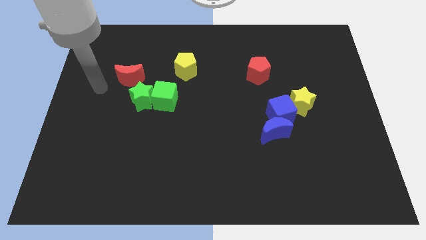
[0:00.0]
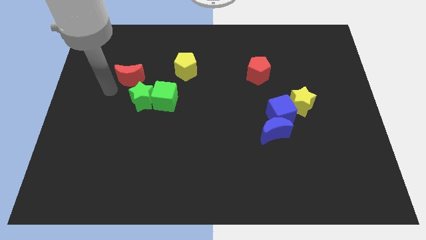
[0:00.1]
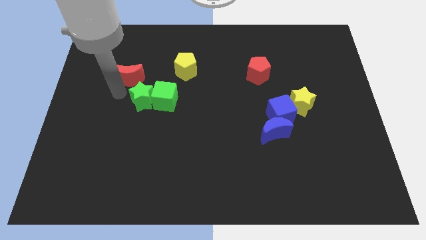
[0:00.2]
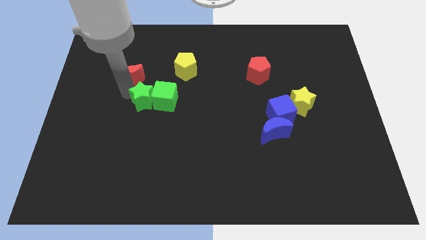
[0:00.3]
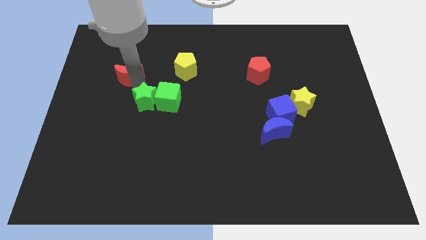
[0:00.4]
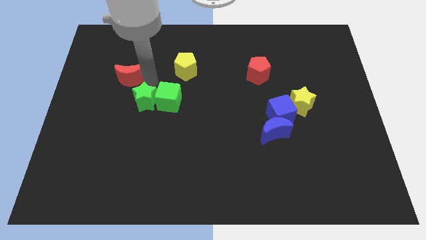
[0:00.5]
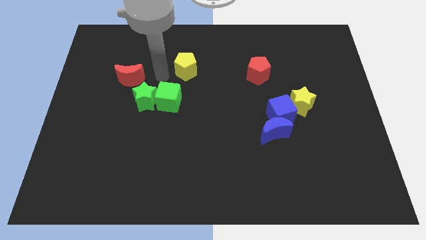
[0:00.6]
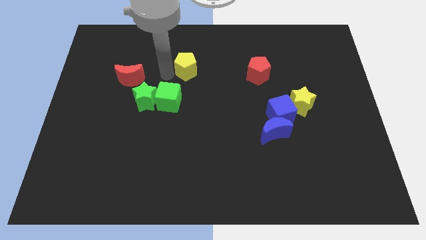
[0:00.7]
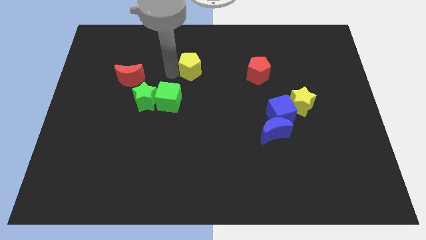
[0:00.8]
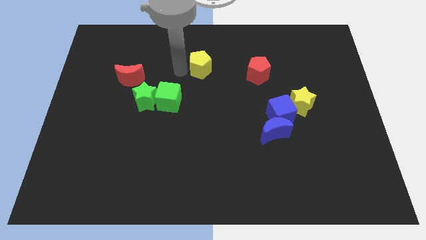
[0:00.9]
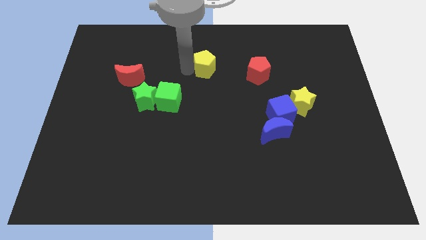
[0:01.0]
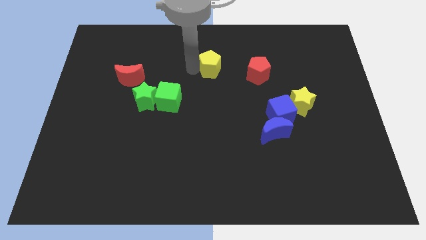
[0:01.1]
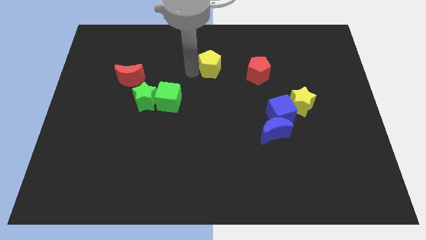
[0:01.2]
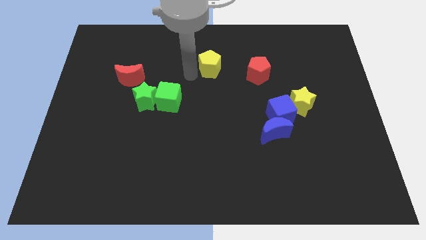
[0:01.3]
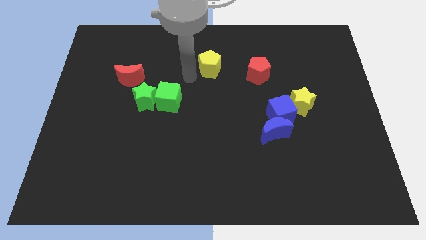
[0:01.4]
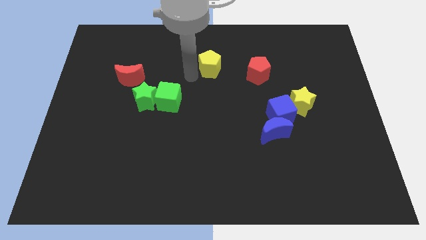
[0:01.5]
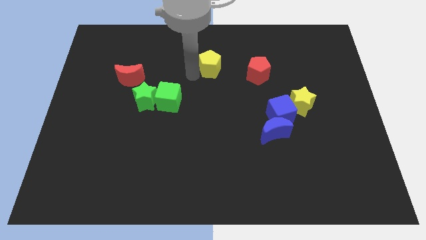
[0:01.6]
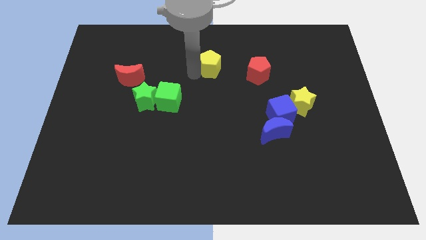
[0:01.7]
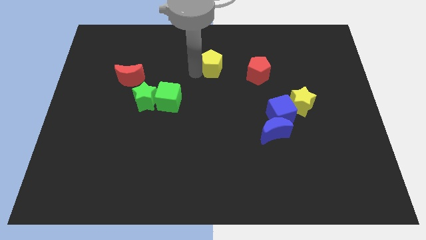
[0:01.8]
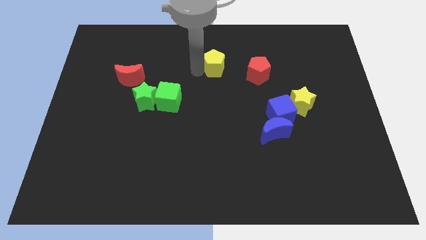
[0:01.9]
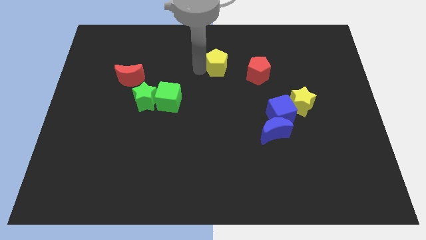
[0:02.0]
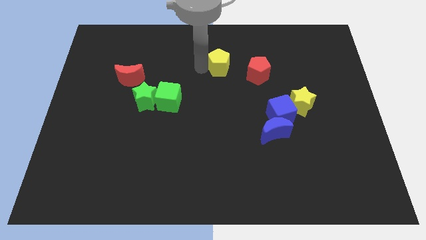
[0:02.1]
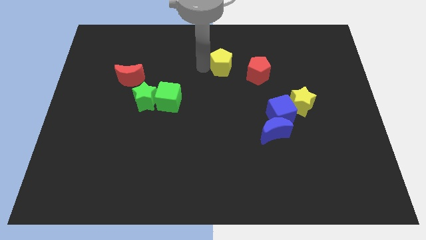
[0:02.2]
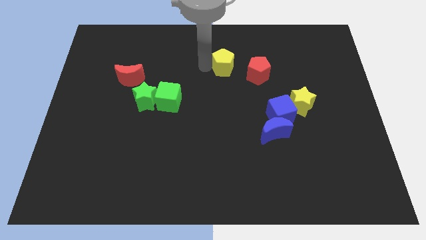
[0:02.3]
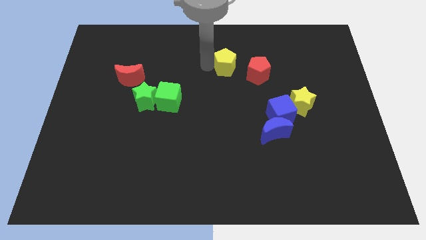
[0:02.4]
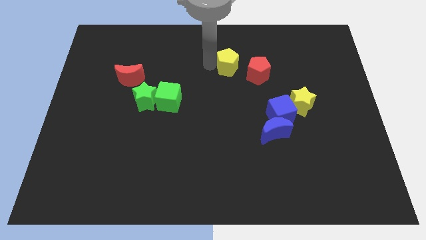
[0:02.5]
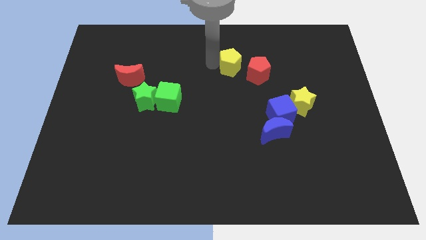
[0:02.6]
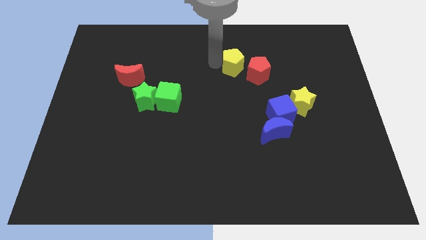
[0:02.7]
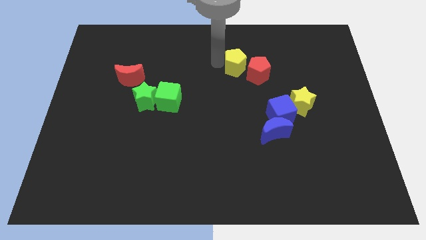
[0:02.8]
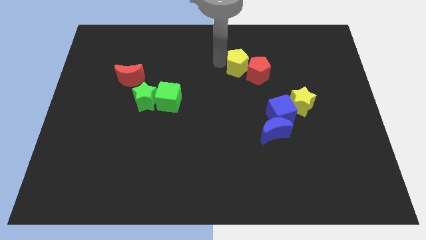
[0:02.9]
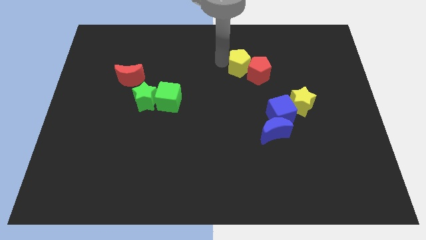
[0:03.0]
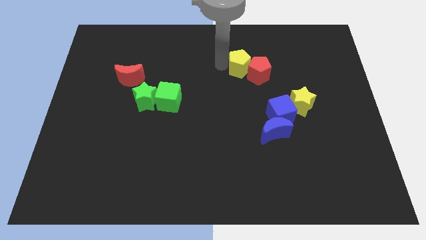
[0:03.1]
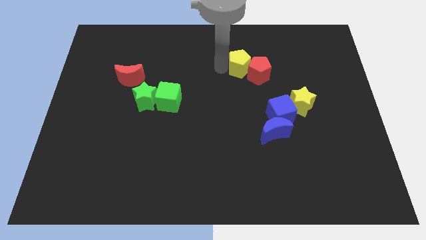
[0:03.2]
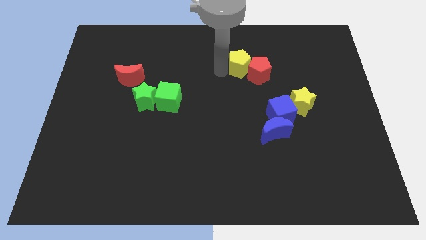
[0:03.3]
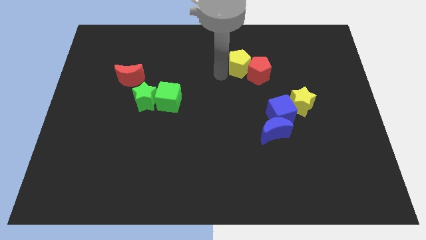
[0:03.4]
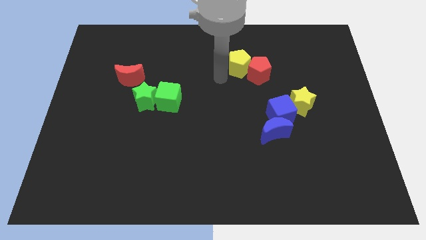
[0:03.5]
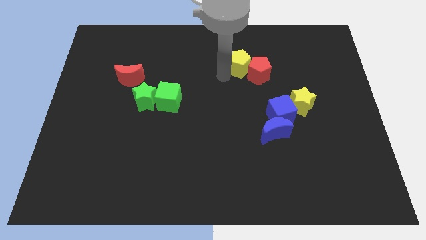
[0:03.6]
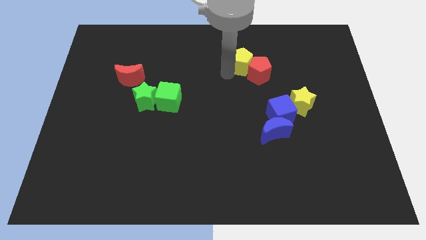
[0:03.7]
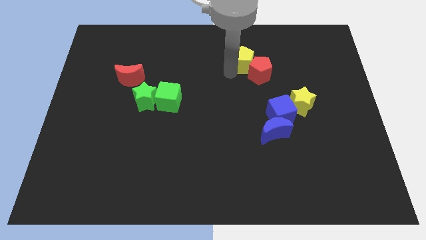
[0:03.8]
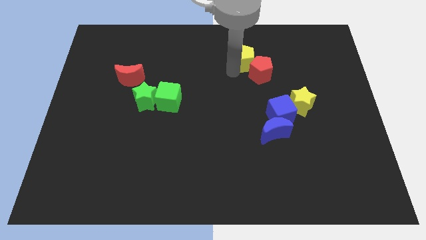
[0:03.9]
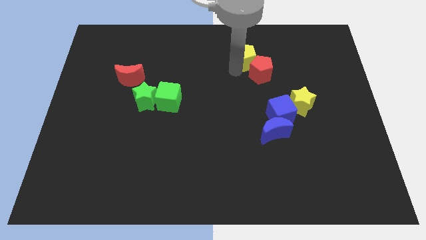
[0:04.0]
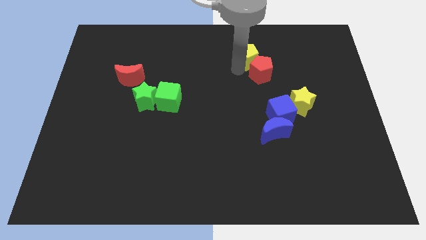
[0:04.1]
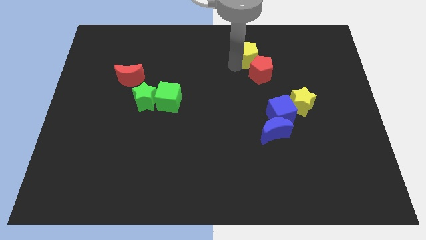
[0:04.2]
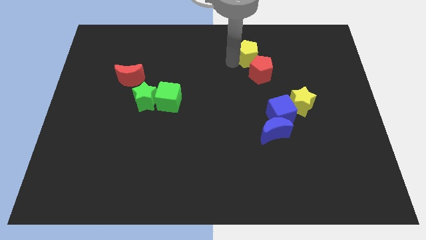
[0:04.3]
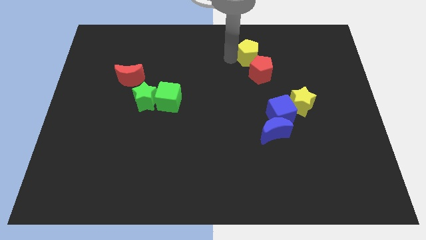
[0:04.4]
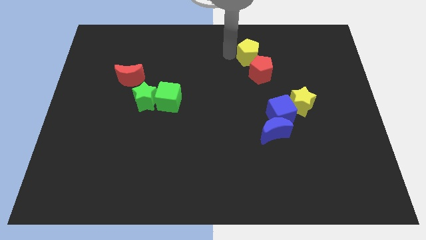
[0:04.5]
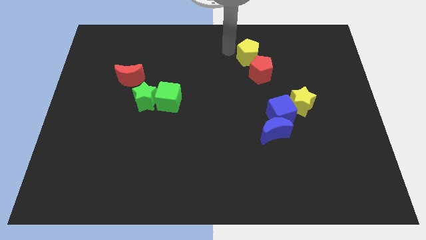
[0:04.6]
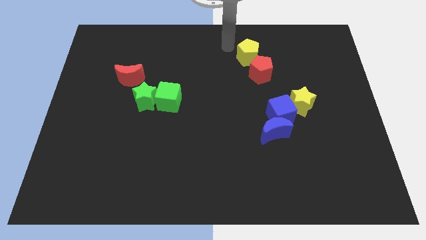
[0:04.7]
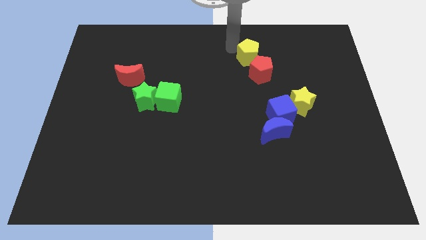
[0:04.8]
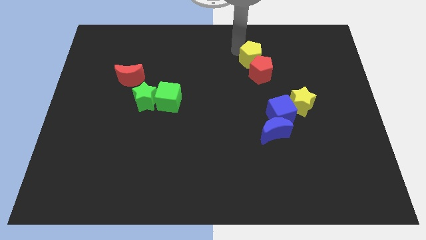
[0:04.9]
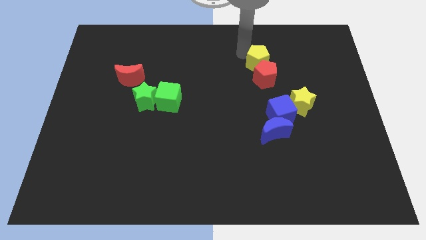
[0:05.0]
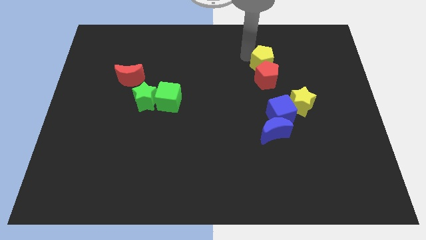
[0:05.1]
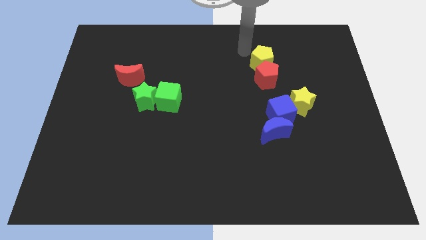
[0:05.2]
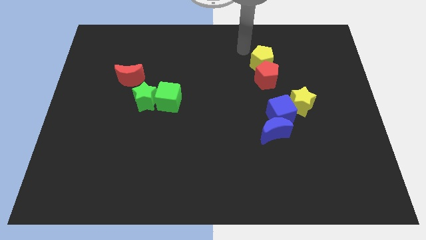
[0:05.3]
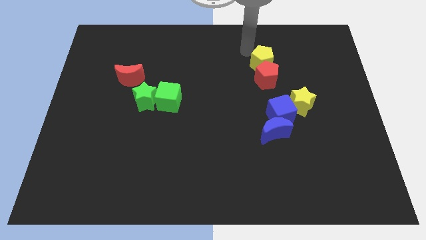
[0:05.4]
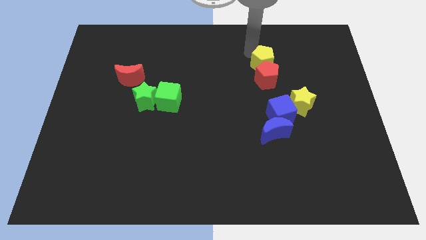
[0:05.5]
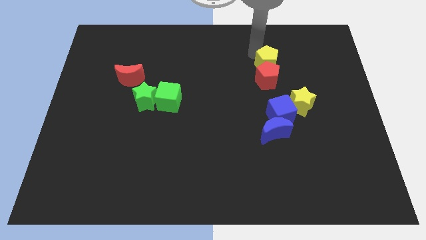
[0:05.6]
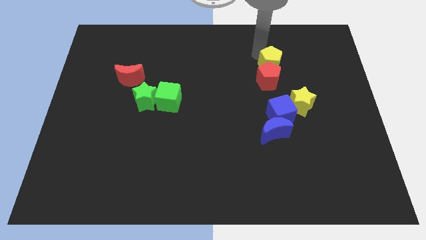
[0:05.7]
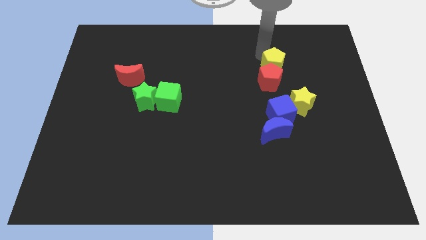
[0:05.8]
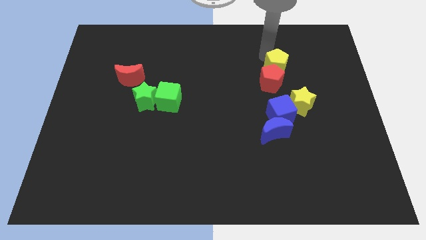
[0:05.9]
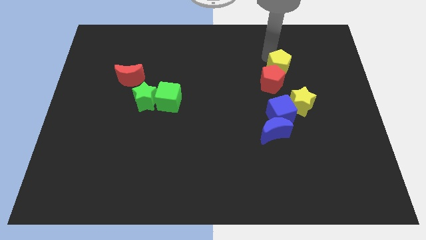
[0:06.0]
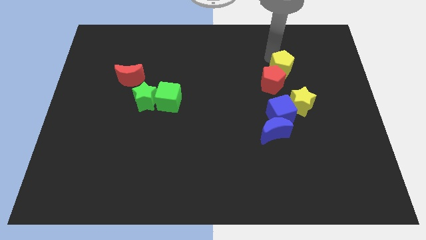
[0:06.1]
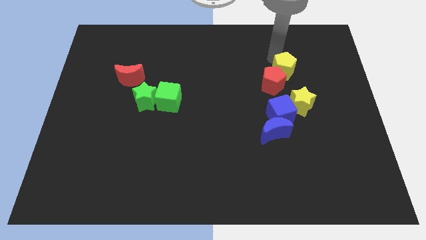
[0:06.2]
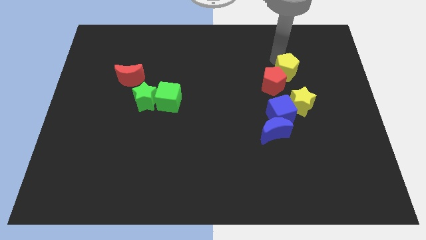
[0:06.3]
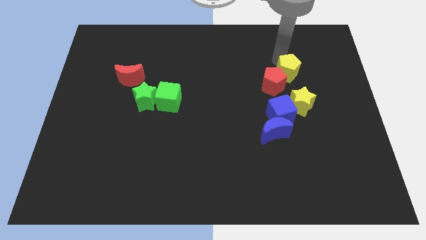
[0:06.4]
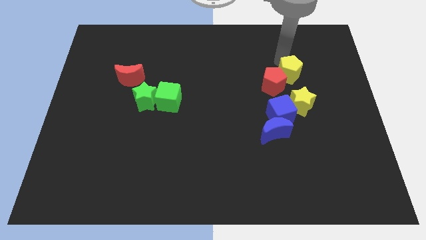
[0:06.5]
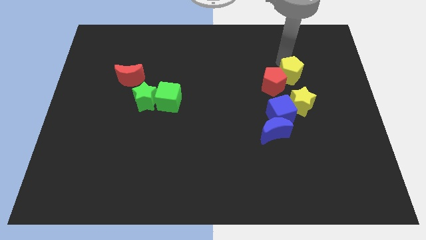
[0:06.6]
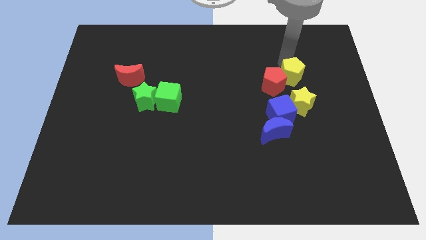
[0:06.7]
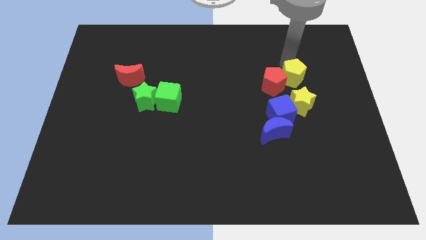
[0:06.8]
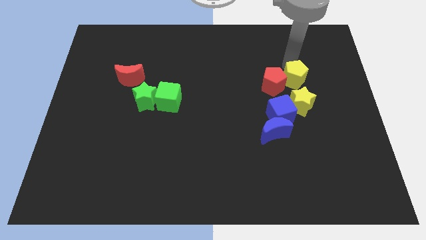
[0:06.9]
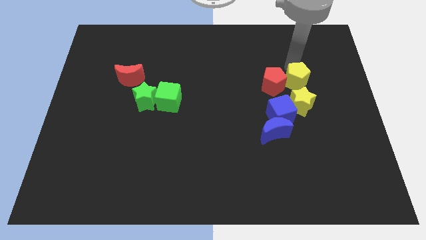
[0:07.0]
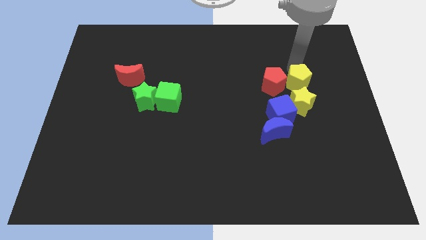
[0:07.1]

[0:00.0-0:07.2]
move the yellow pentagon diagonally up and to the right of the blue cube
